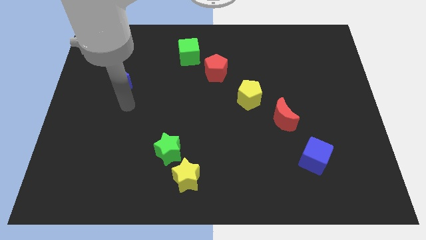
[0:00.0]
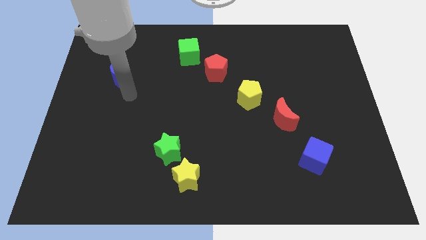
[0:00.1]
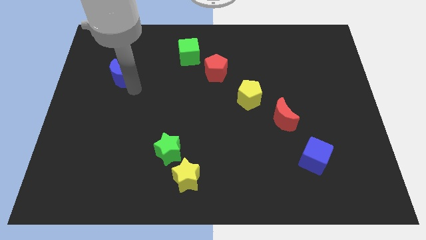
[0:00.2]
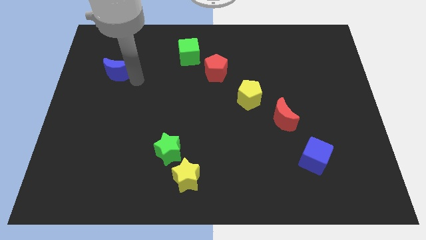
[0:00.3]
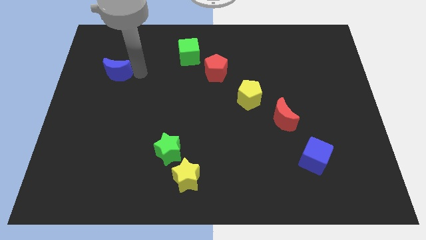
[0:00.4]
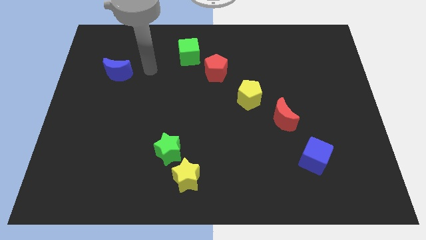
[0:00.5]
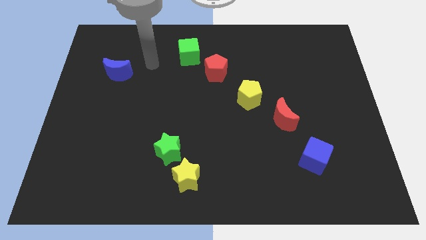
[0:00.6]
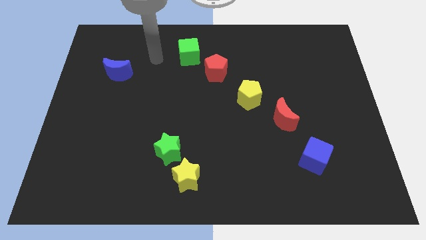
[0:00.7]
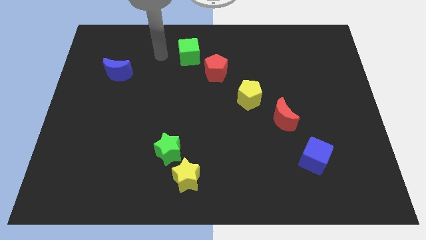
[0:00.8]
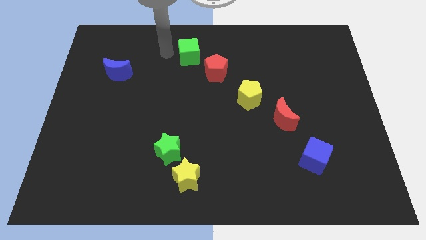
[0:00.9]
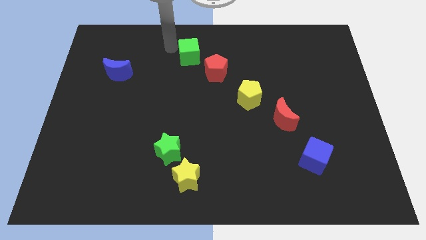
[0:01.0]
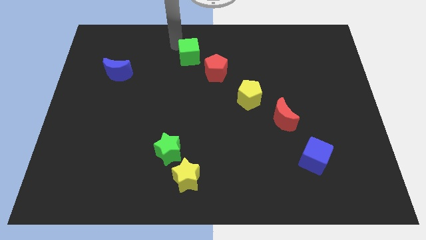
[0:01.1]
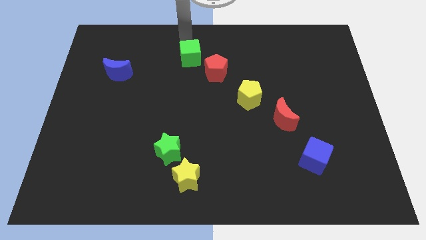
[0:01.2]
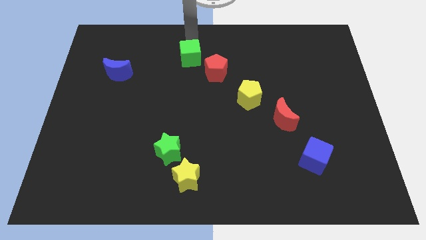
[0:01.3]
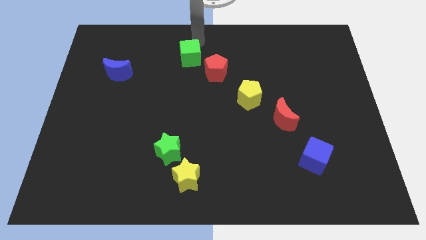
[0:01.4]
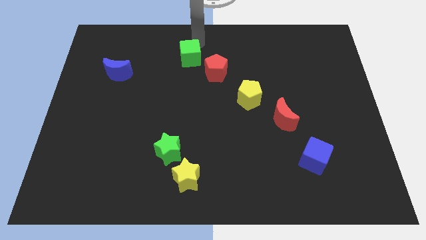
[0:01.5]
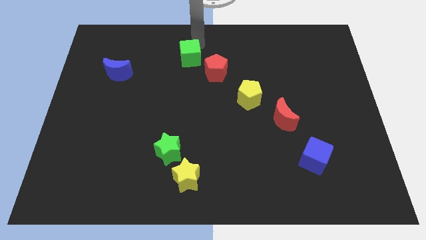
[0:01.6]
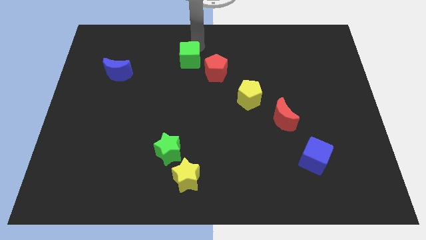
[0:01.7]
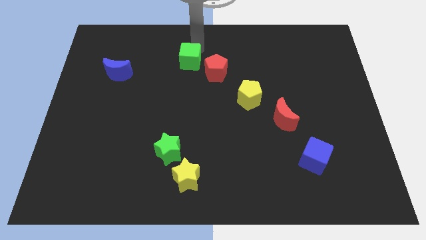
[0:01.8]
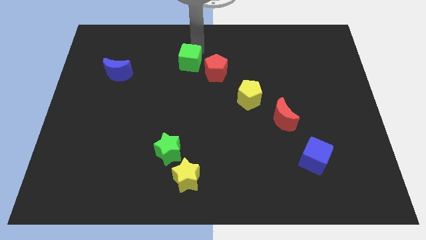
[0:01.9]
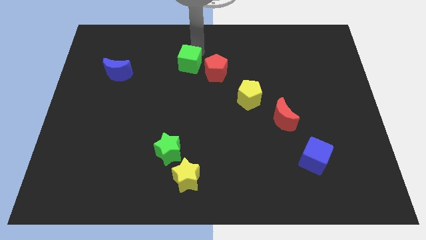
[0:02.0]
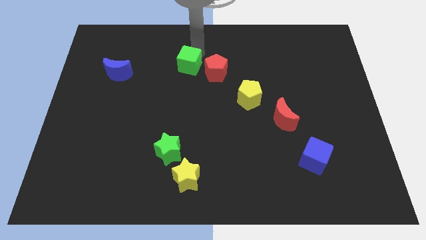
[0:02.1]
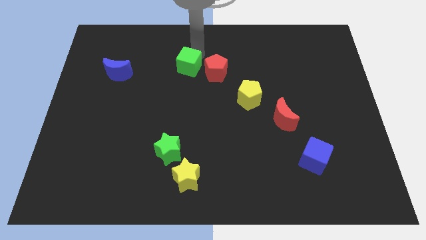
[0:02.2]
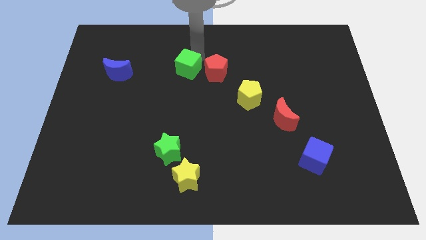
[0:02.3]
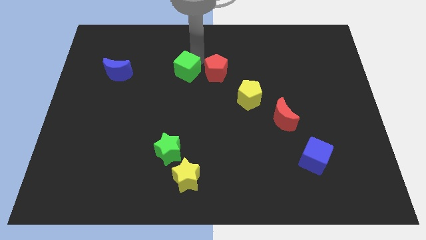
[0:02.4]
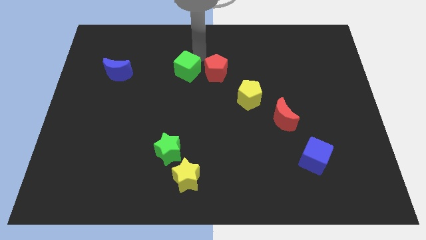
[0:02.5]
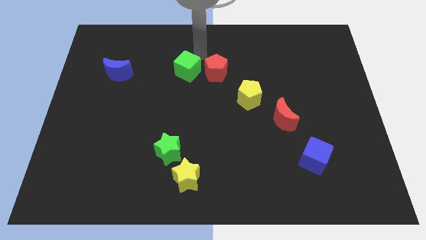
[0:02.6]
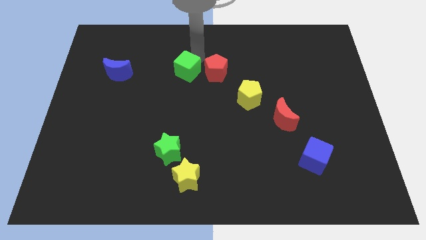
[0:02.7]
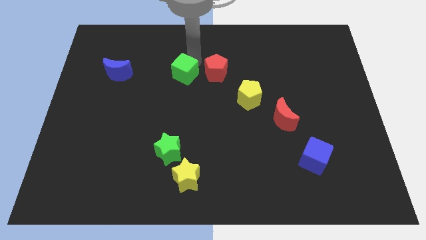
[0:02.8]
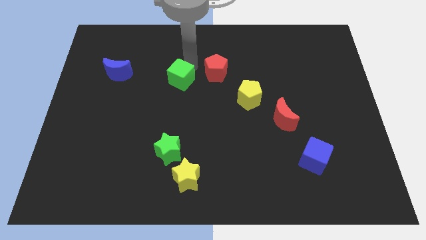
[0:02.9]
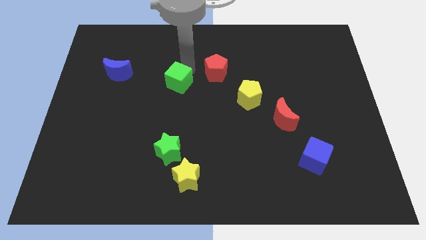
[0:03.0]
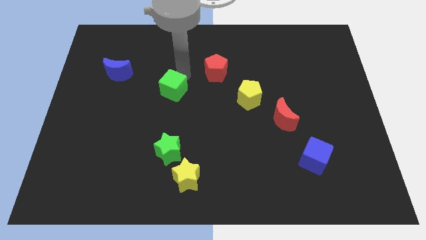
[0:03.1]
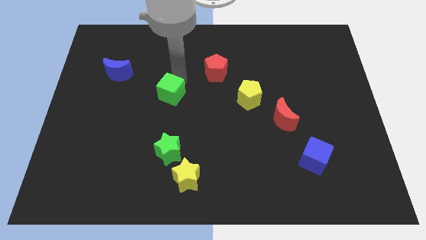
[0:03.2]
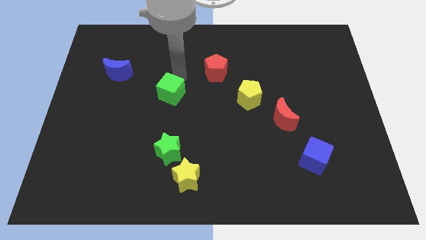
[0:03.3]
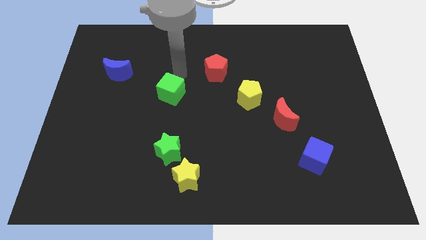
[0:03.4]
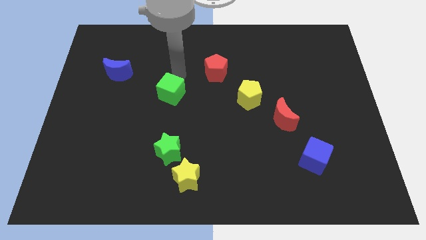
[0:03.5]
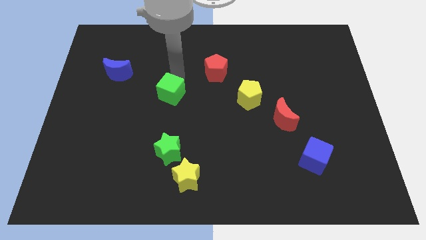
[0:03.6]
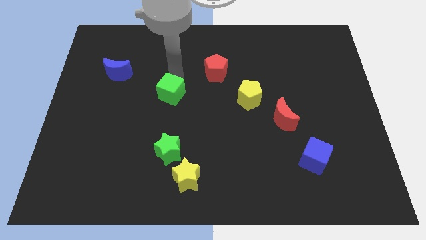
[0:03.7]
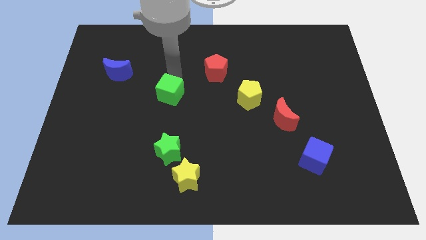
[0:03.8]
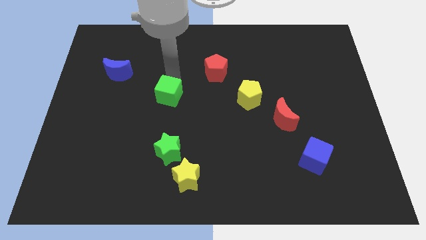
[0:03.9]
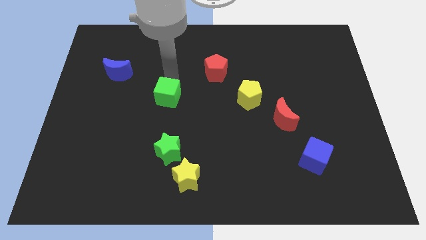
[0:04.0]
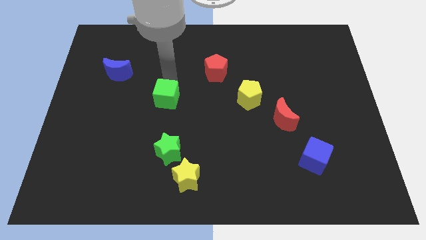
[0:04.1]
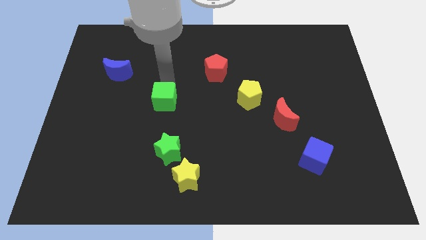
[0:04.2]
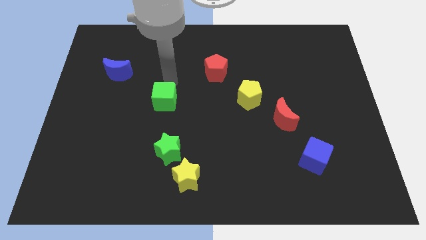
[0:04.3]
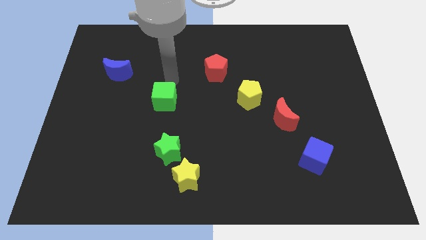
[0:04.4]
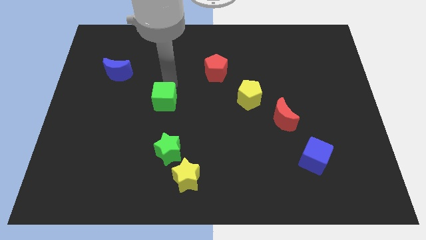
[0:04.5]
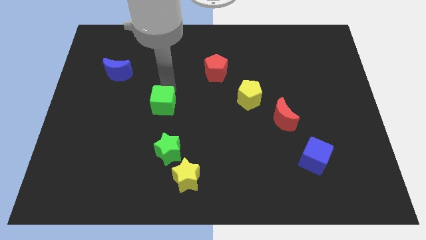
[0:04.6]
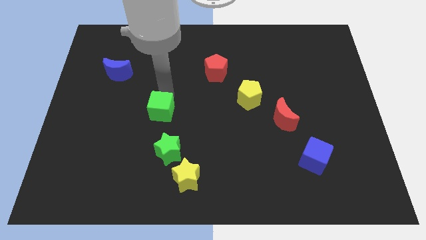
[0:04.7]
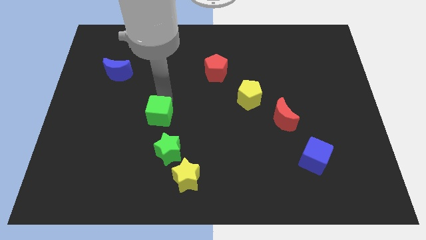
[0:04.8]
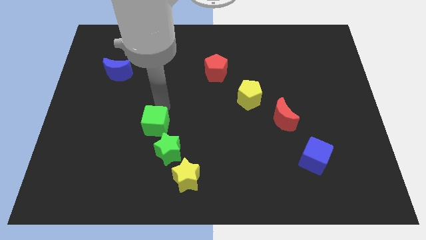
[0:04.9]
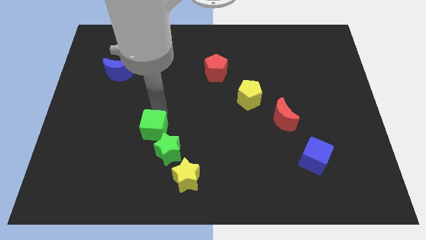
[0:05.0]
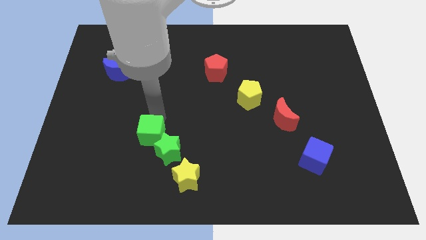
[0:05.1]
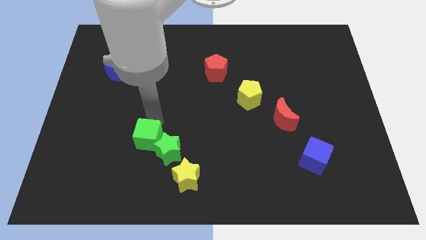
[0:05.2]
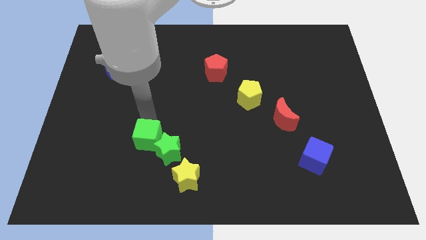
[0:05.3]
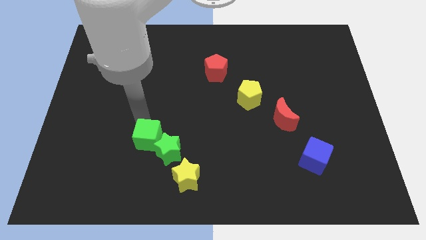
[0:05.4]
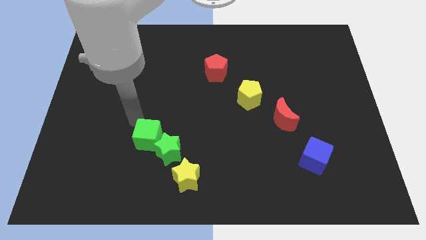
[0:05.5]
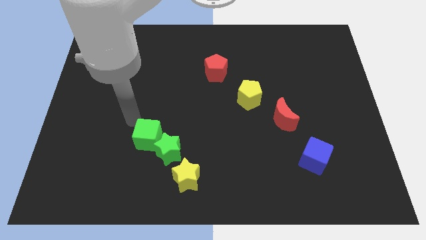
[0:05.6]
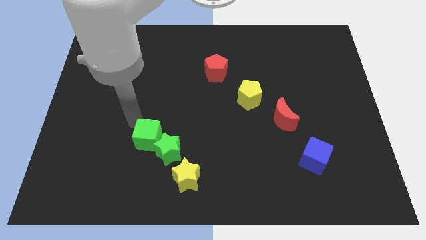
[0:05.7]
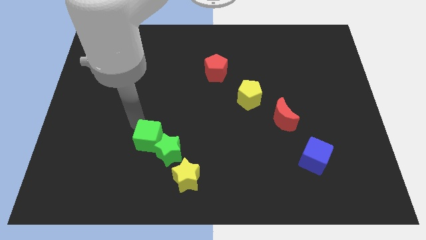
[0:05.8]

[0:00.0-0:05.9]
put the green cube to the top left of the yellow star

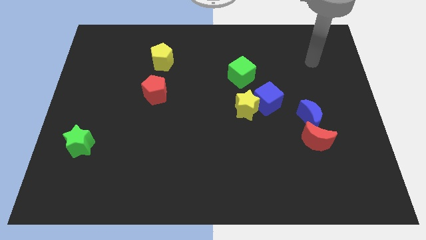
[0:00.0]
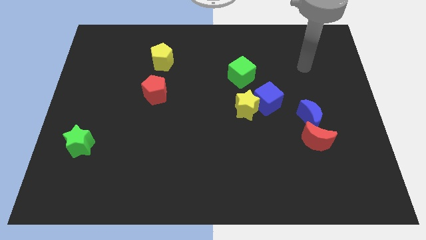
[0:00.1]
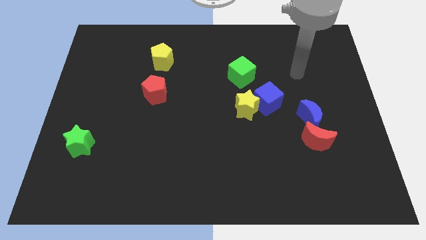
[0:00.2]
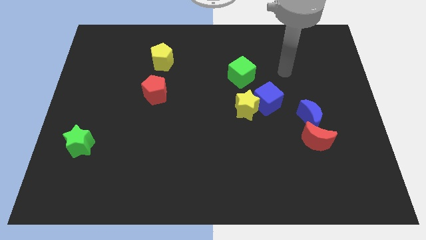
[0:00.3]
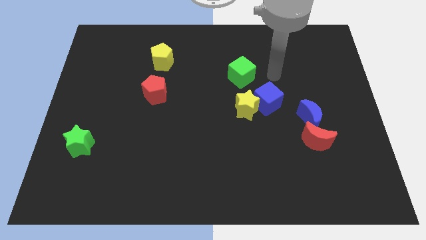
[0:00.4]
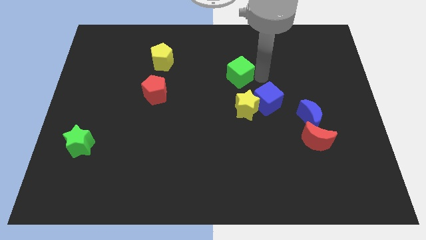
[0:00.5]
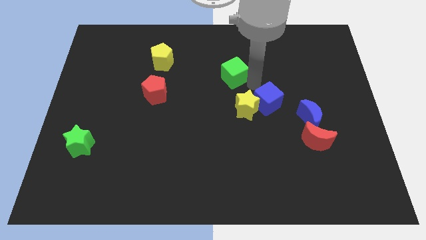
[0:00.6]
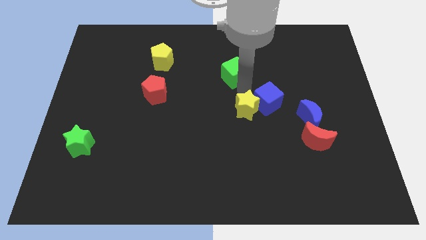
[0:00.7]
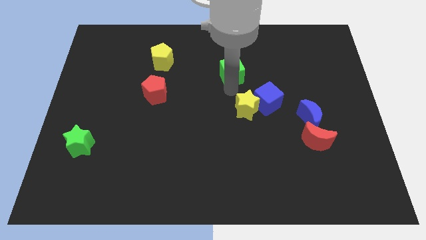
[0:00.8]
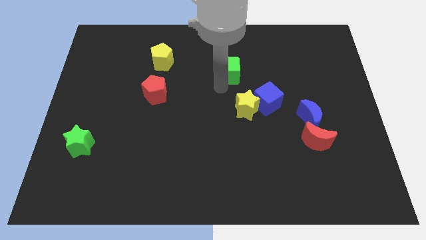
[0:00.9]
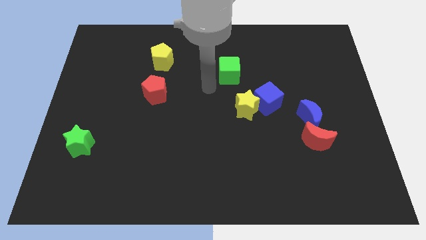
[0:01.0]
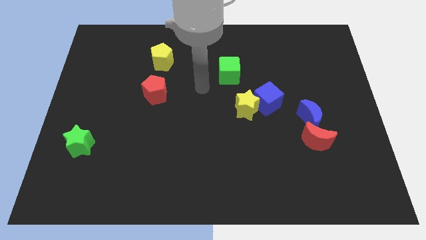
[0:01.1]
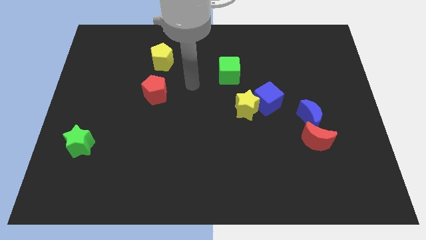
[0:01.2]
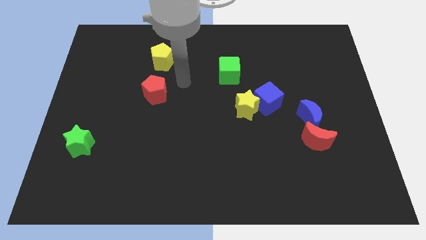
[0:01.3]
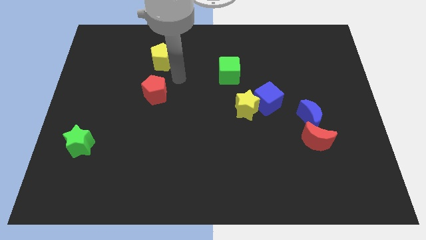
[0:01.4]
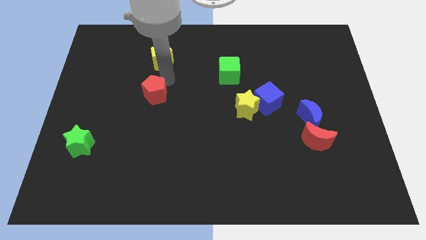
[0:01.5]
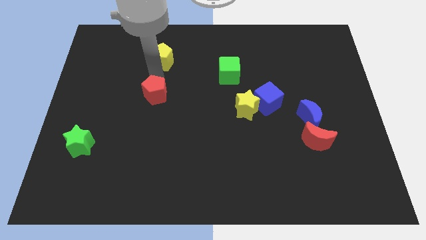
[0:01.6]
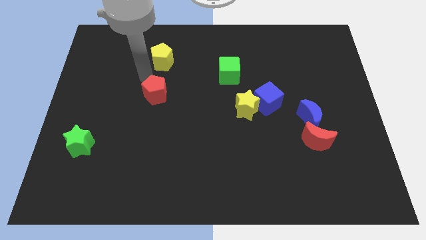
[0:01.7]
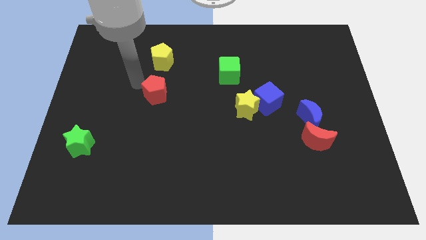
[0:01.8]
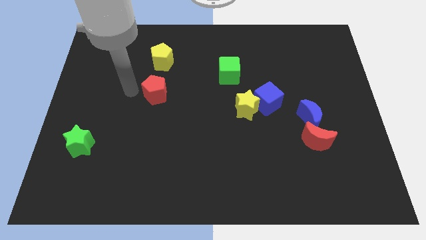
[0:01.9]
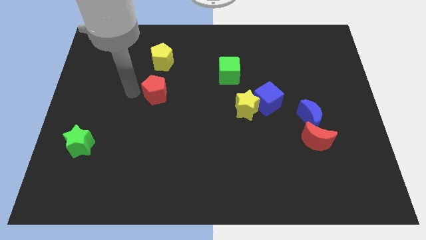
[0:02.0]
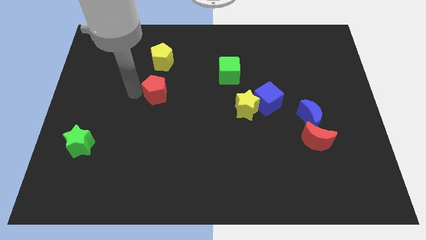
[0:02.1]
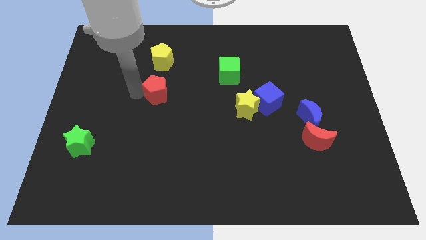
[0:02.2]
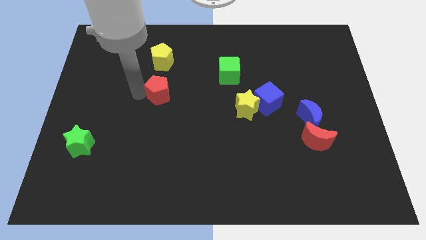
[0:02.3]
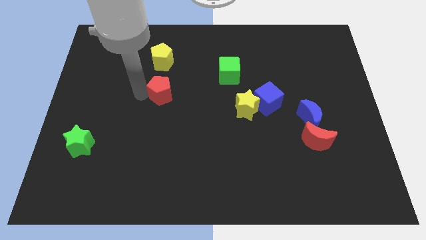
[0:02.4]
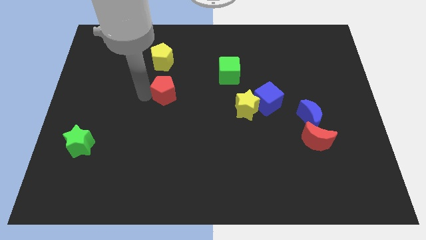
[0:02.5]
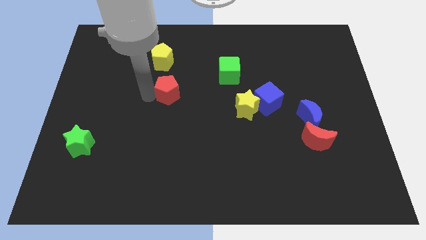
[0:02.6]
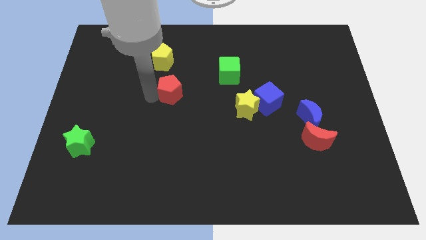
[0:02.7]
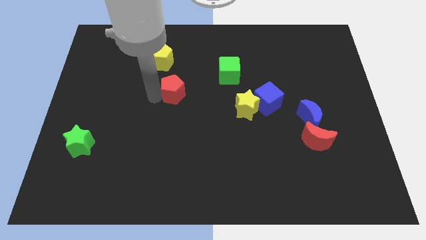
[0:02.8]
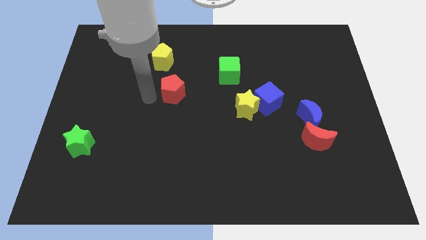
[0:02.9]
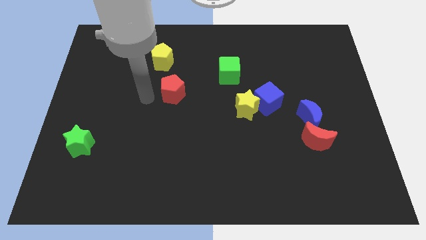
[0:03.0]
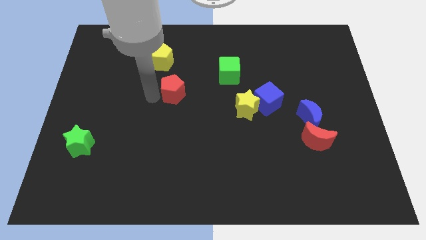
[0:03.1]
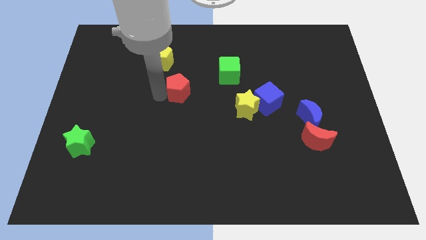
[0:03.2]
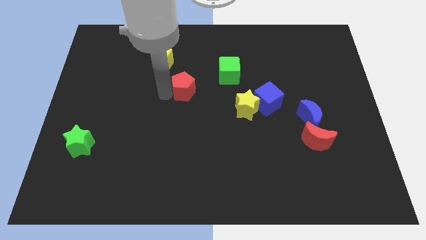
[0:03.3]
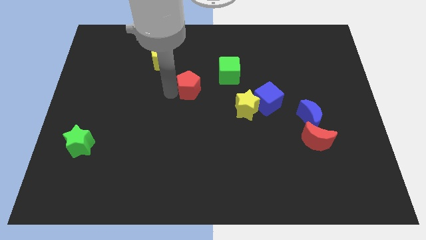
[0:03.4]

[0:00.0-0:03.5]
move the red pentagon to the bottom left of the green cube
